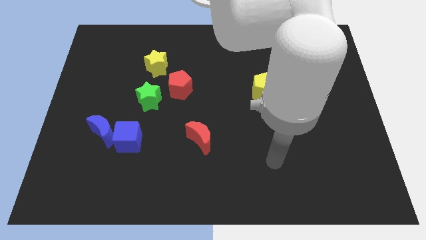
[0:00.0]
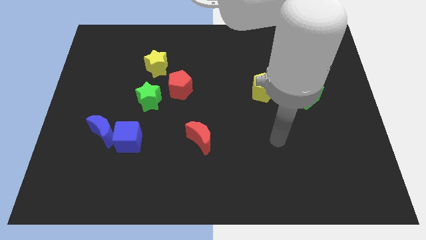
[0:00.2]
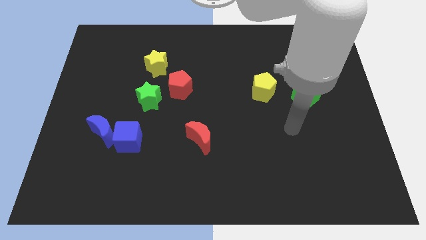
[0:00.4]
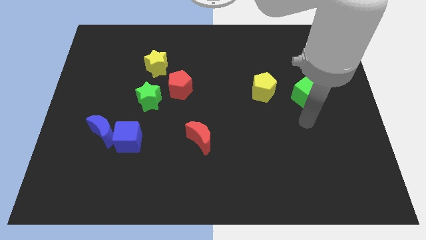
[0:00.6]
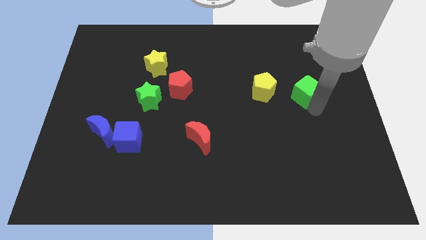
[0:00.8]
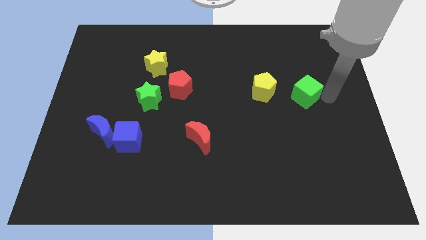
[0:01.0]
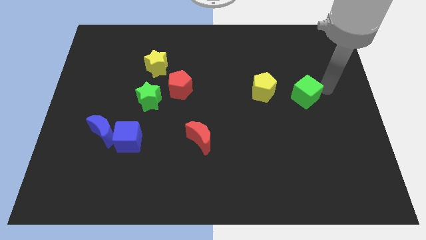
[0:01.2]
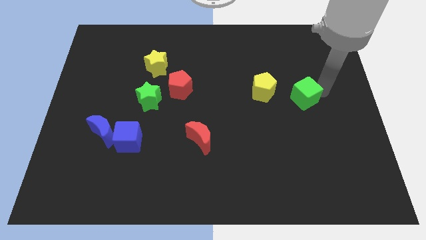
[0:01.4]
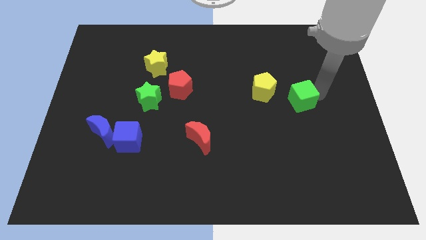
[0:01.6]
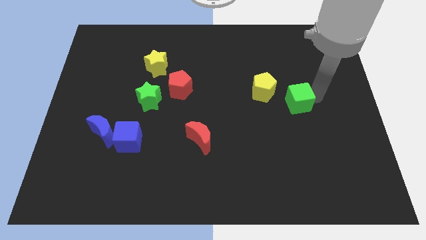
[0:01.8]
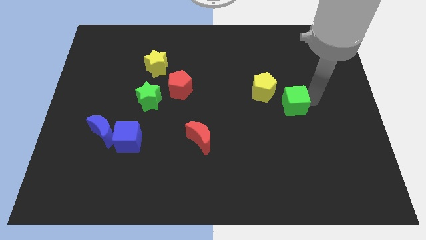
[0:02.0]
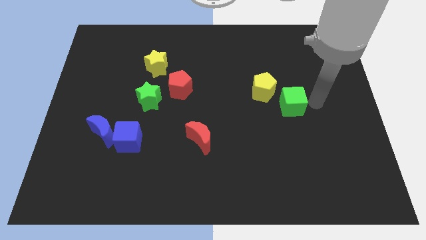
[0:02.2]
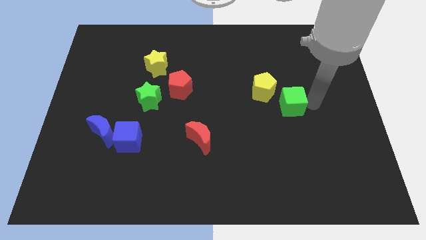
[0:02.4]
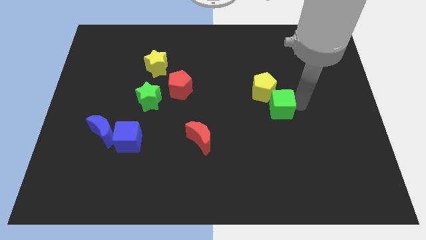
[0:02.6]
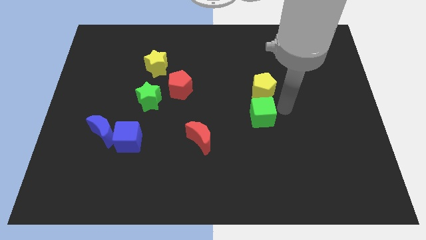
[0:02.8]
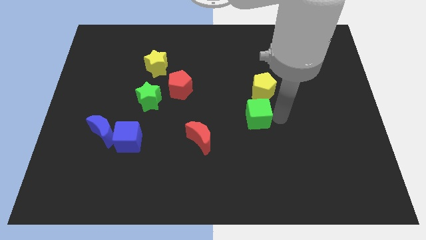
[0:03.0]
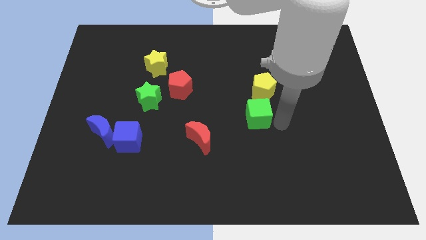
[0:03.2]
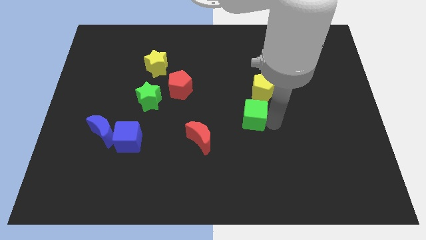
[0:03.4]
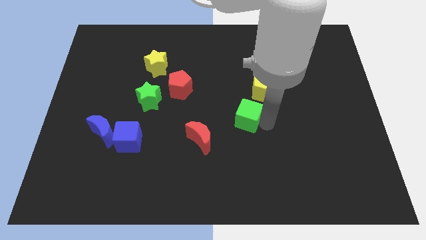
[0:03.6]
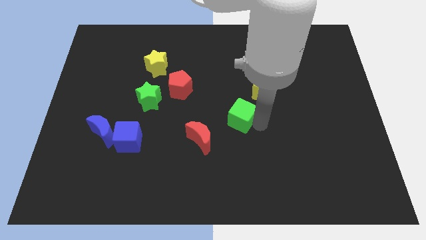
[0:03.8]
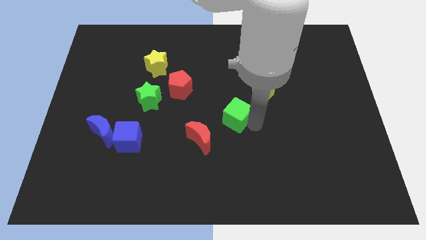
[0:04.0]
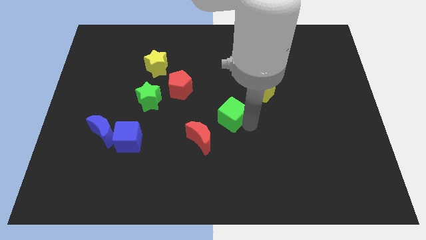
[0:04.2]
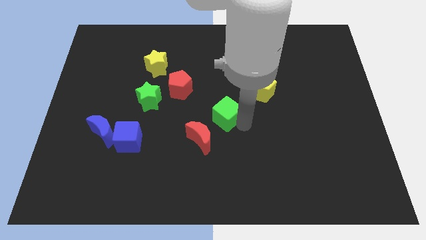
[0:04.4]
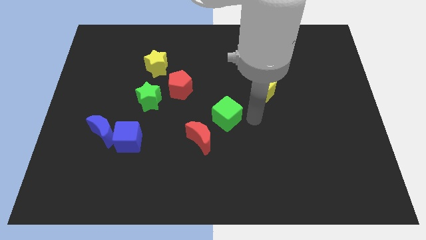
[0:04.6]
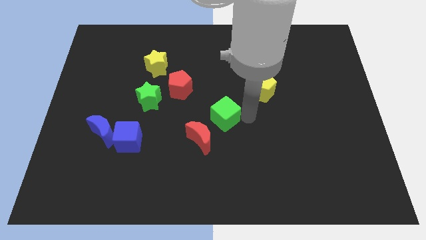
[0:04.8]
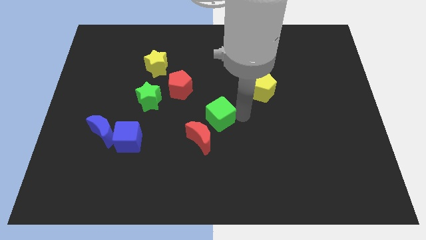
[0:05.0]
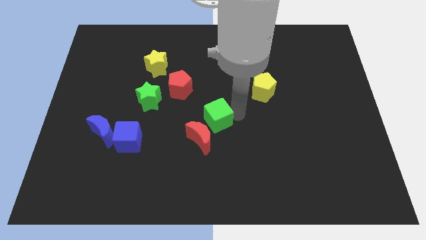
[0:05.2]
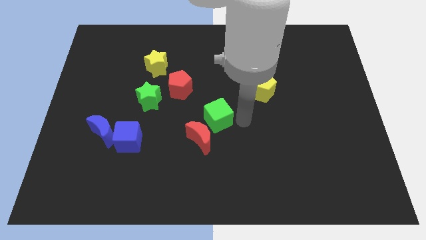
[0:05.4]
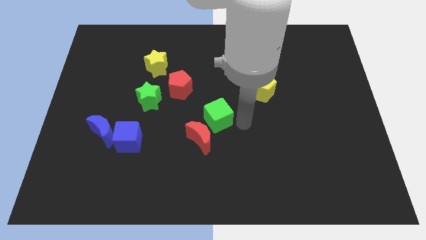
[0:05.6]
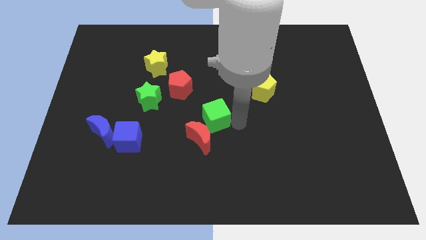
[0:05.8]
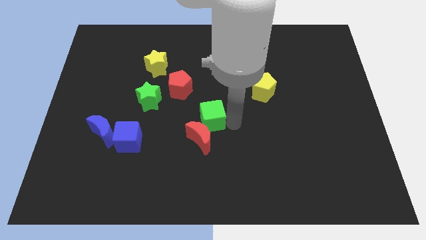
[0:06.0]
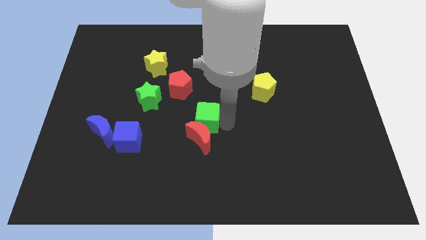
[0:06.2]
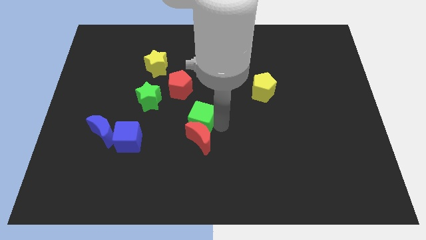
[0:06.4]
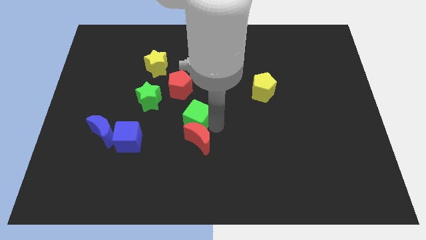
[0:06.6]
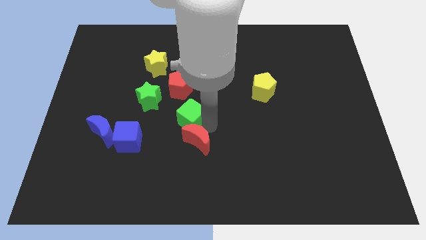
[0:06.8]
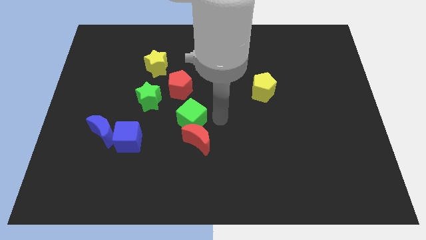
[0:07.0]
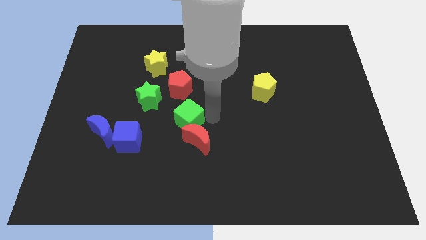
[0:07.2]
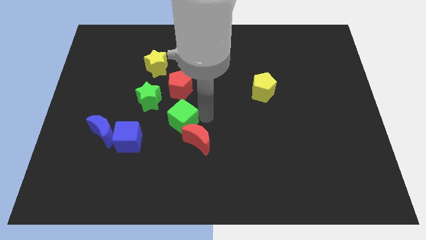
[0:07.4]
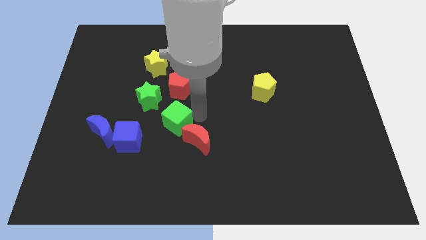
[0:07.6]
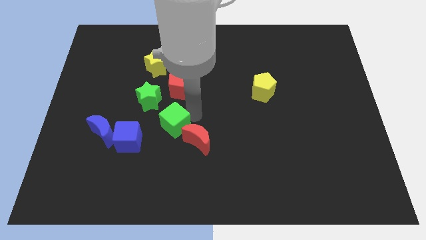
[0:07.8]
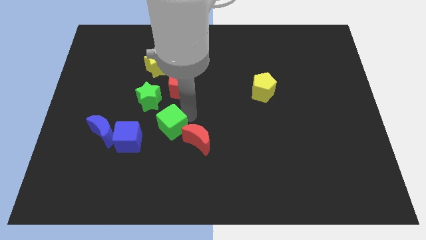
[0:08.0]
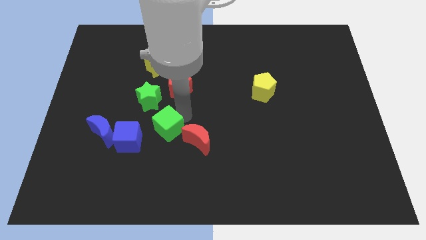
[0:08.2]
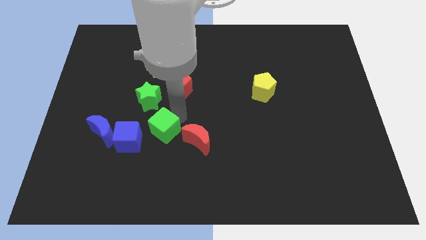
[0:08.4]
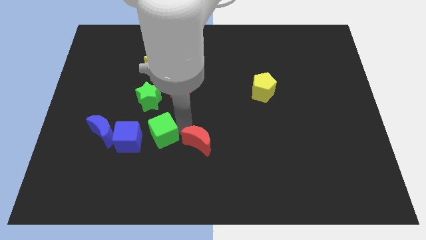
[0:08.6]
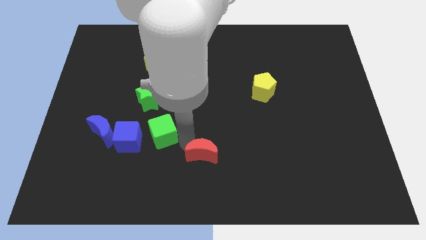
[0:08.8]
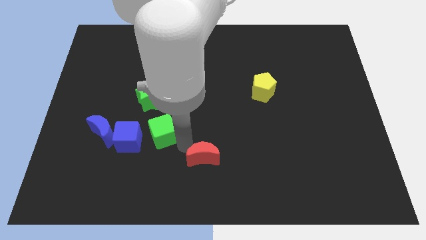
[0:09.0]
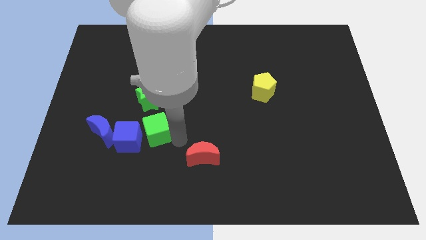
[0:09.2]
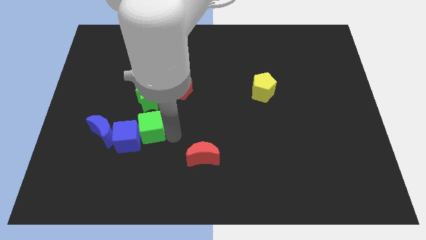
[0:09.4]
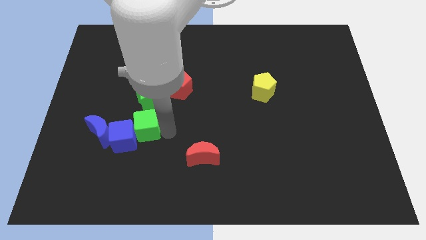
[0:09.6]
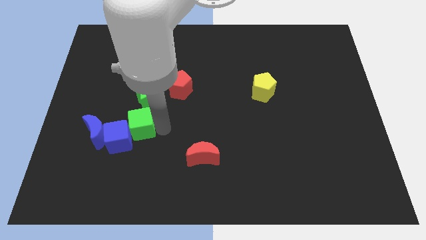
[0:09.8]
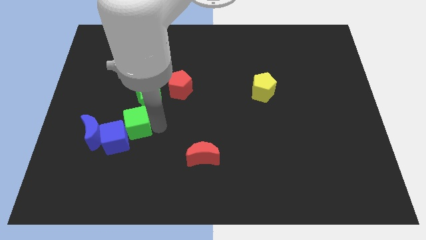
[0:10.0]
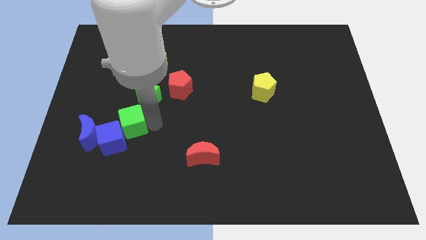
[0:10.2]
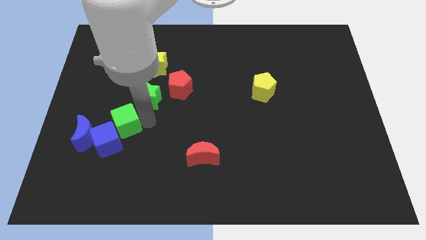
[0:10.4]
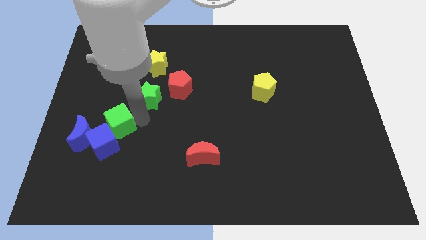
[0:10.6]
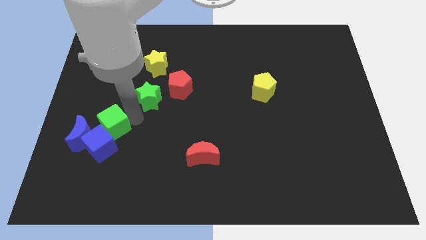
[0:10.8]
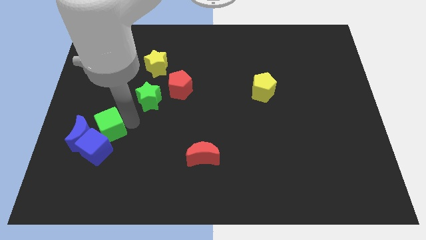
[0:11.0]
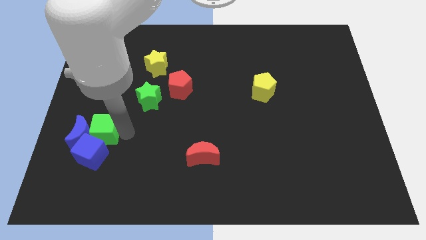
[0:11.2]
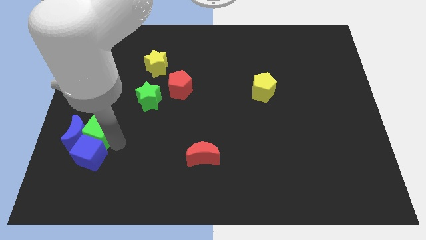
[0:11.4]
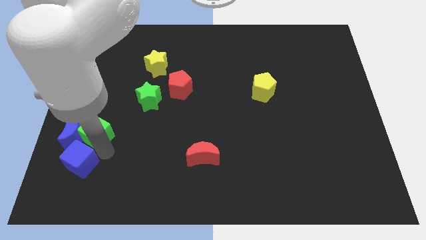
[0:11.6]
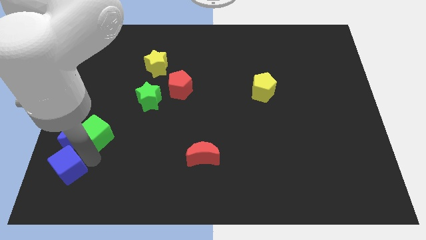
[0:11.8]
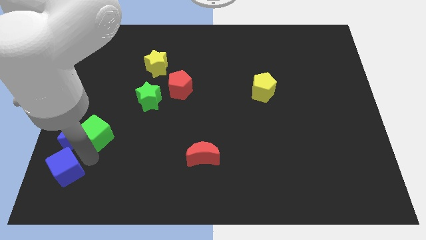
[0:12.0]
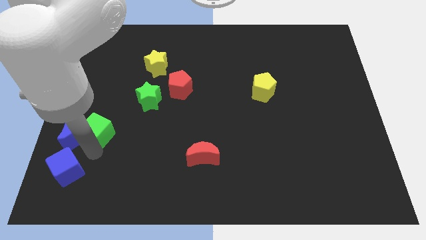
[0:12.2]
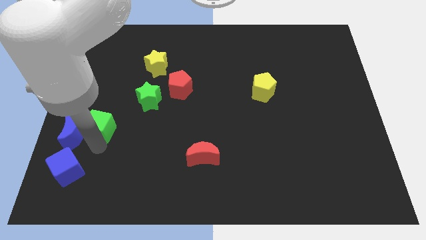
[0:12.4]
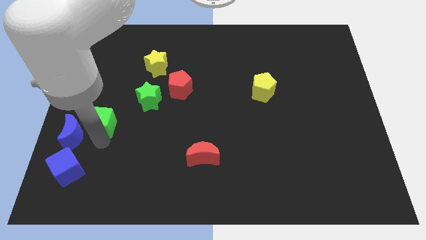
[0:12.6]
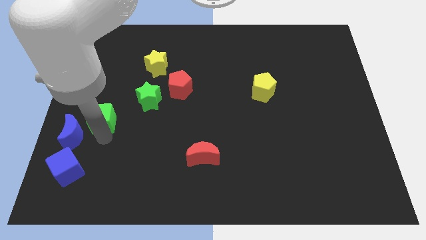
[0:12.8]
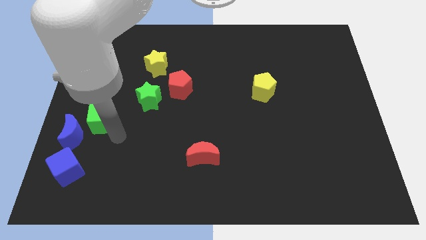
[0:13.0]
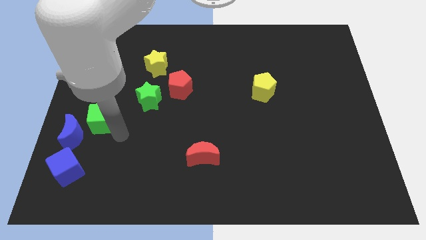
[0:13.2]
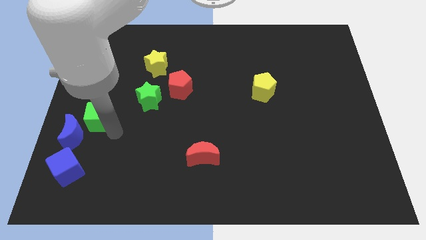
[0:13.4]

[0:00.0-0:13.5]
move the green cube to the left side
